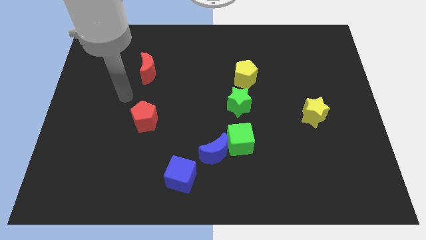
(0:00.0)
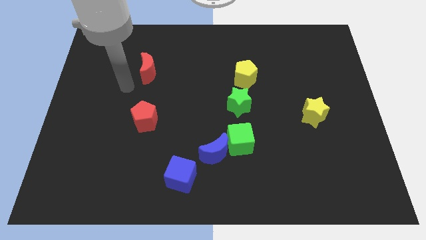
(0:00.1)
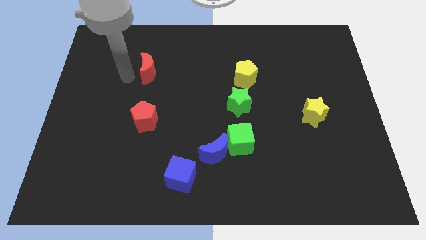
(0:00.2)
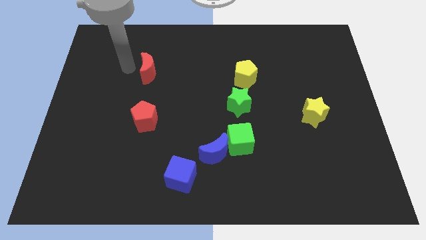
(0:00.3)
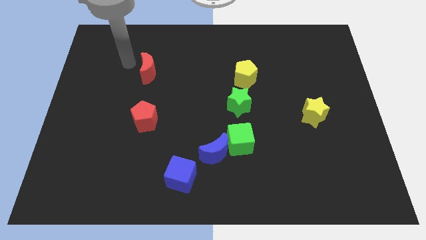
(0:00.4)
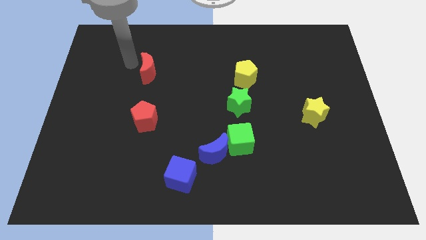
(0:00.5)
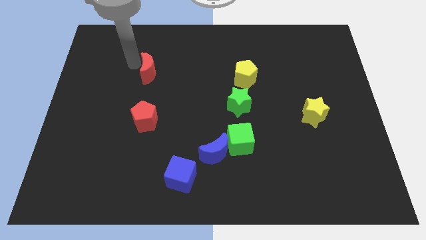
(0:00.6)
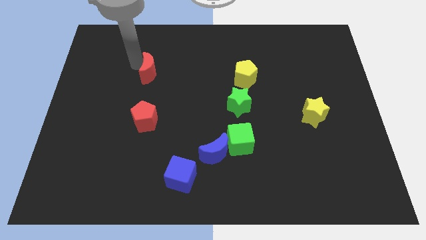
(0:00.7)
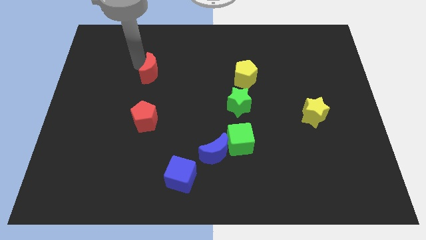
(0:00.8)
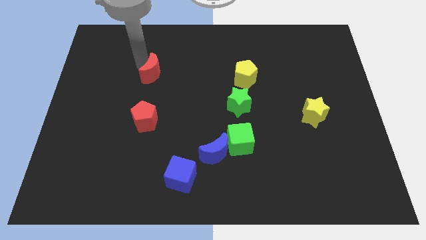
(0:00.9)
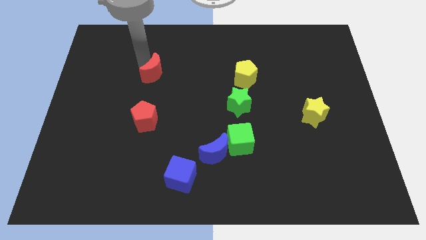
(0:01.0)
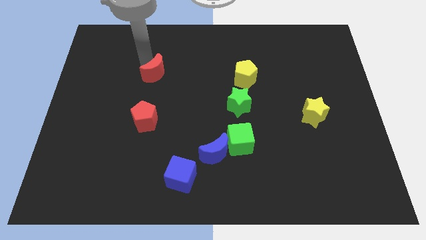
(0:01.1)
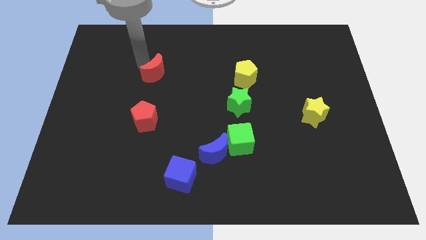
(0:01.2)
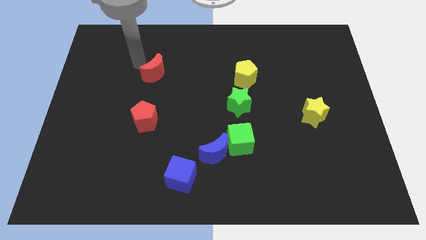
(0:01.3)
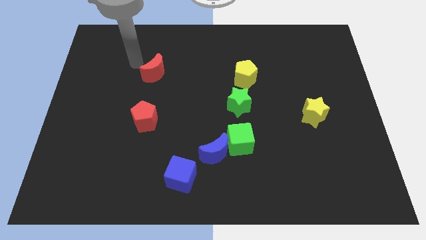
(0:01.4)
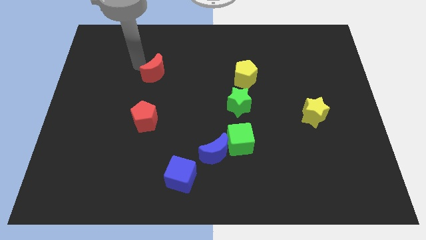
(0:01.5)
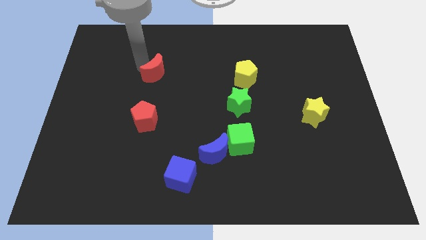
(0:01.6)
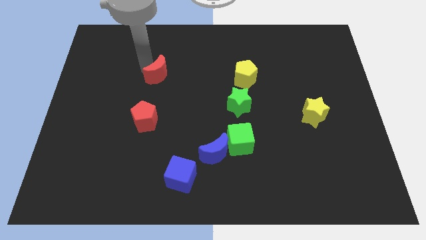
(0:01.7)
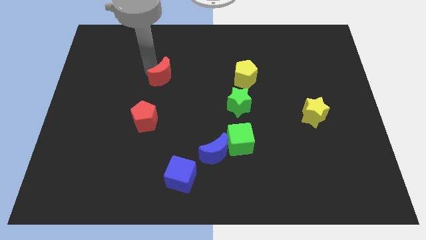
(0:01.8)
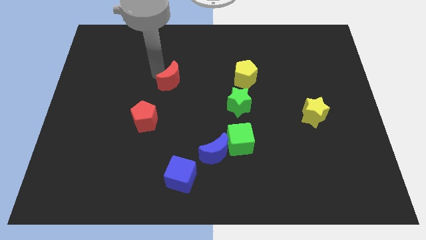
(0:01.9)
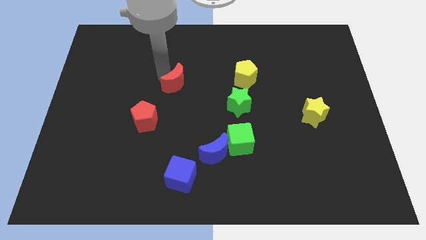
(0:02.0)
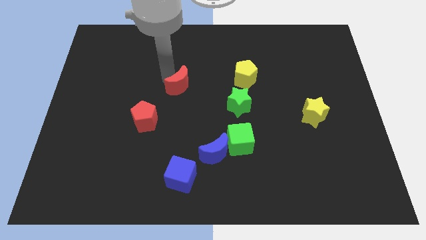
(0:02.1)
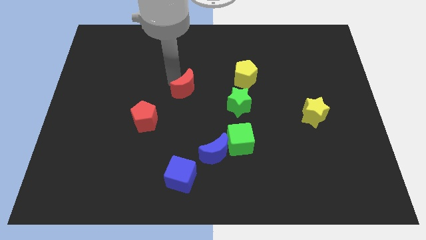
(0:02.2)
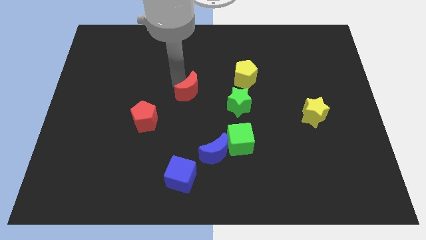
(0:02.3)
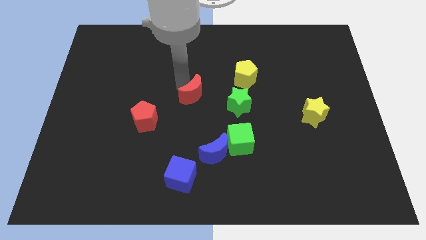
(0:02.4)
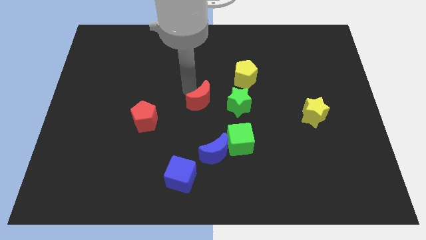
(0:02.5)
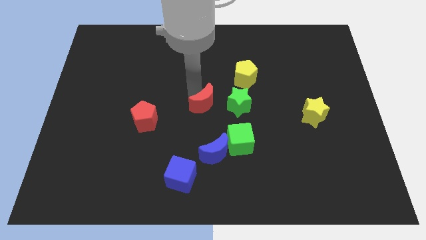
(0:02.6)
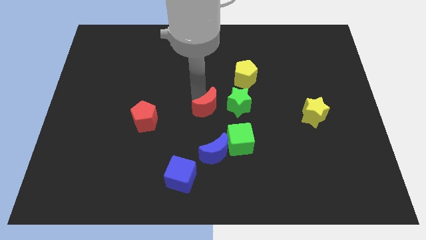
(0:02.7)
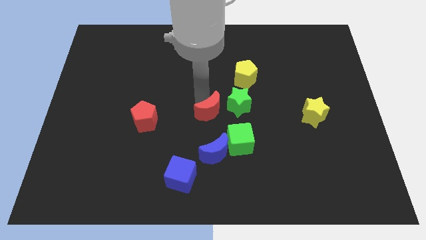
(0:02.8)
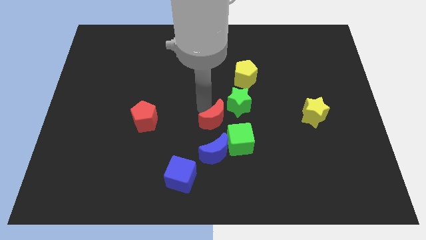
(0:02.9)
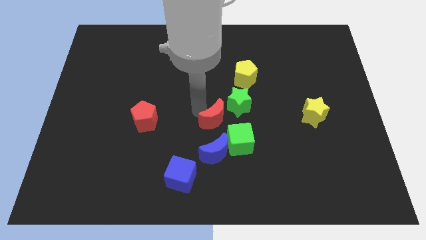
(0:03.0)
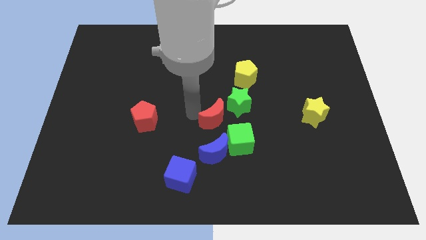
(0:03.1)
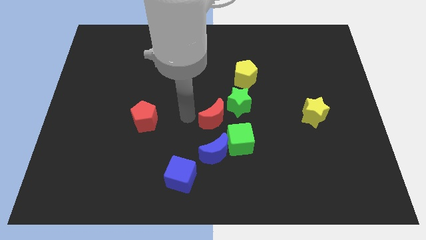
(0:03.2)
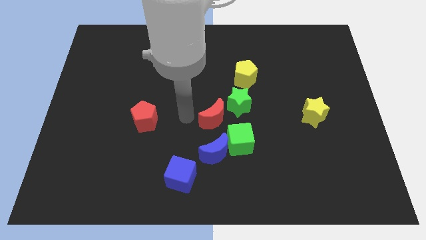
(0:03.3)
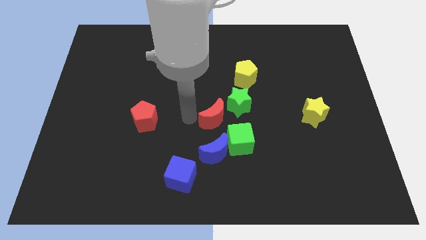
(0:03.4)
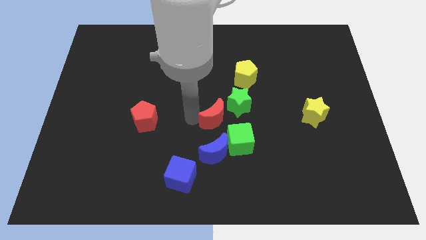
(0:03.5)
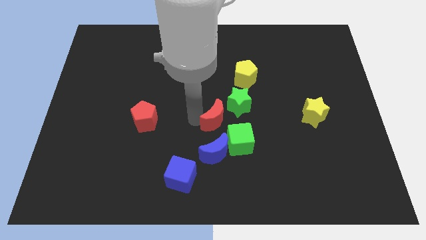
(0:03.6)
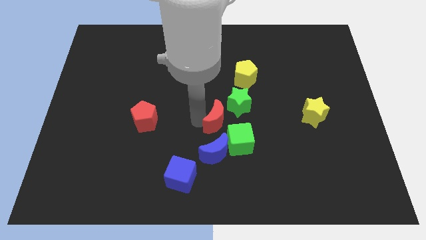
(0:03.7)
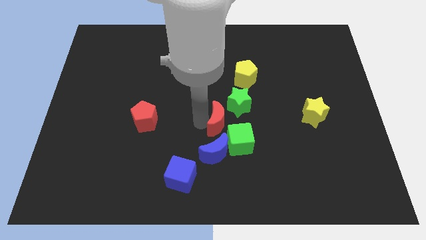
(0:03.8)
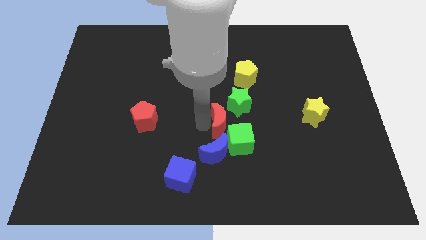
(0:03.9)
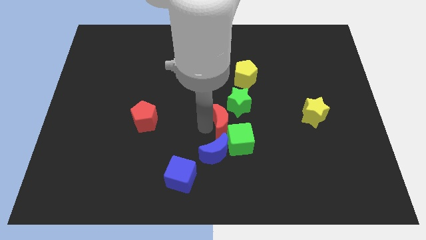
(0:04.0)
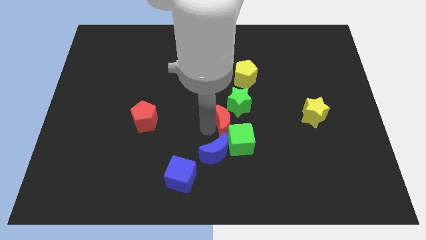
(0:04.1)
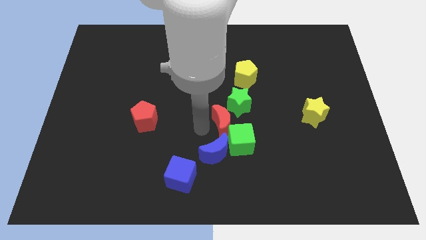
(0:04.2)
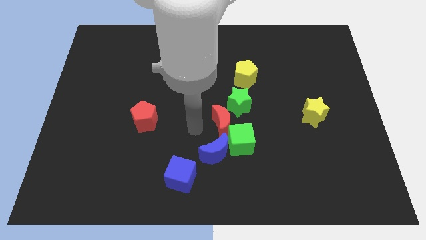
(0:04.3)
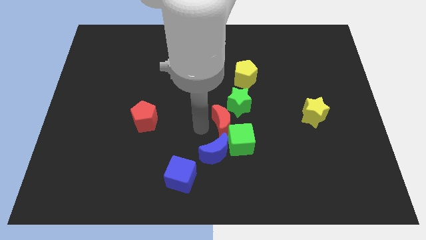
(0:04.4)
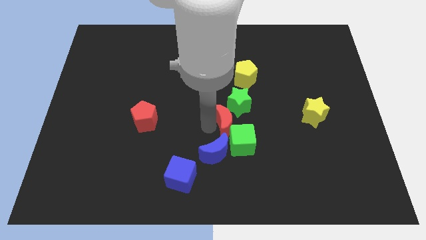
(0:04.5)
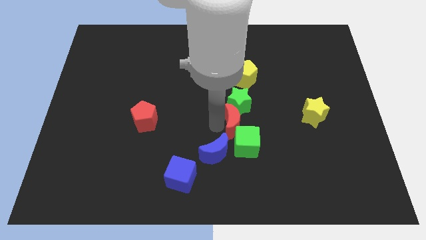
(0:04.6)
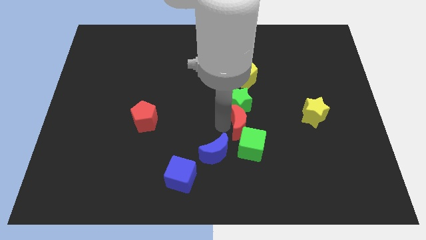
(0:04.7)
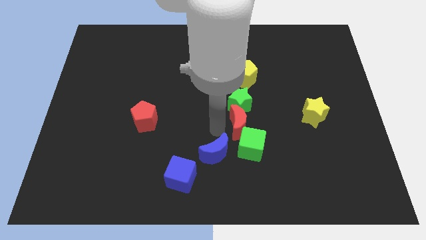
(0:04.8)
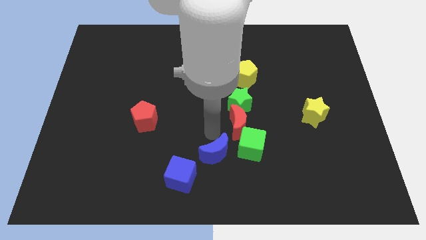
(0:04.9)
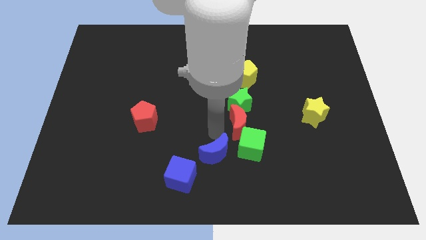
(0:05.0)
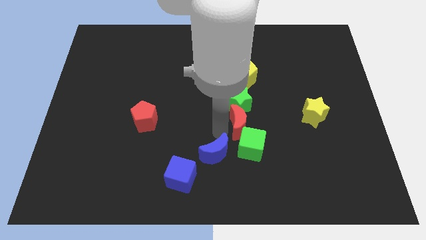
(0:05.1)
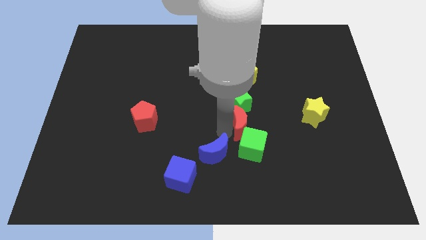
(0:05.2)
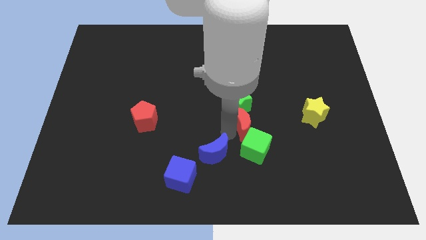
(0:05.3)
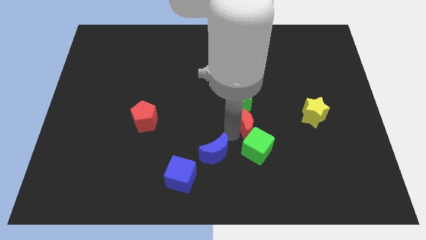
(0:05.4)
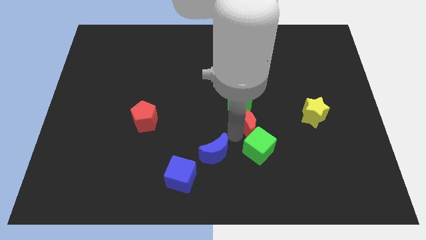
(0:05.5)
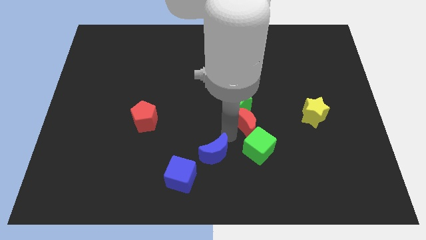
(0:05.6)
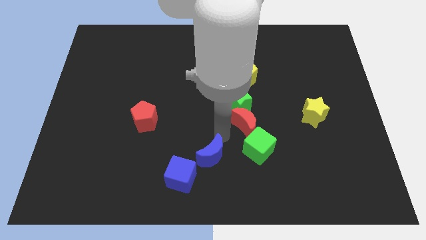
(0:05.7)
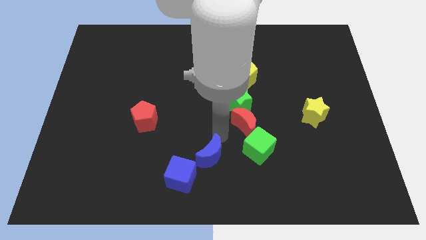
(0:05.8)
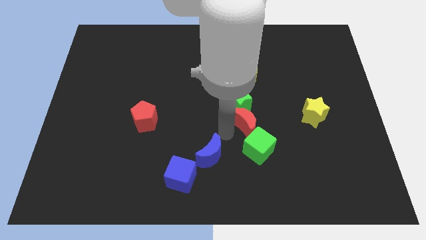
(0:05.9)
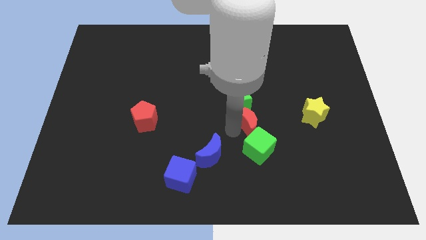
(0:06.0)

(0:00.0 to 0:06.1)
put the red moon left of the yellow star

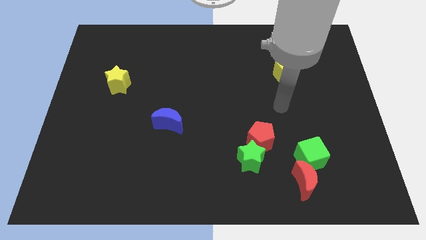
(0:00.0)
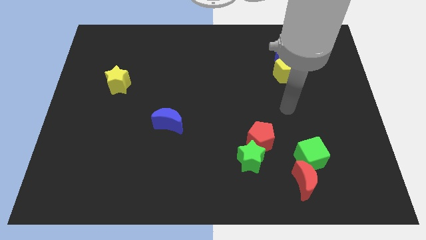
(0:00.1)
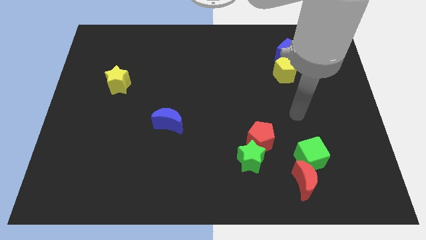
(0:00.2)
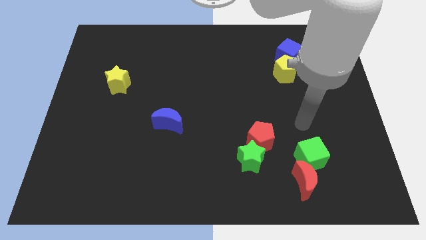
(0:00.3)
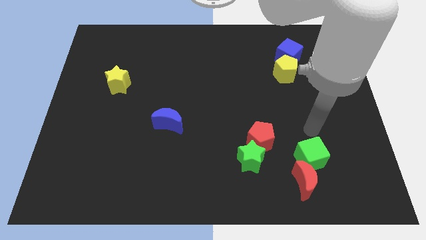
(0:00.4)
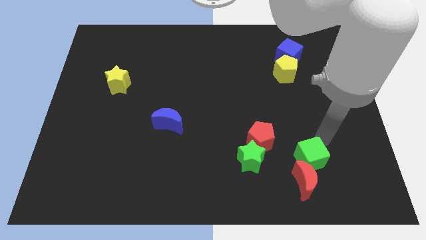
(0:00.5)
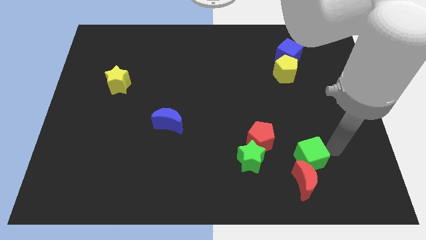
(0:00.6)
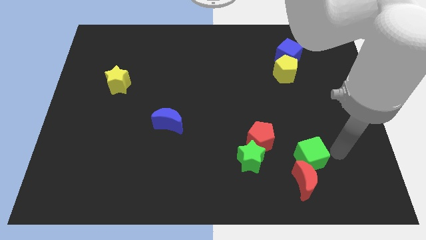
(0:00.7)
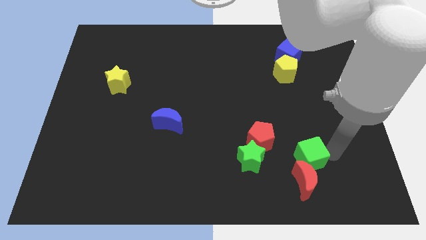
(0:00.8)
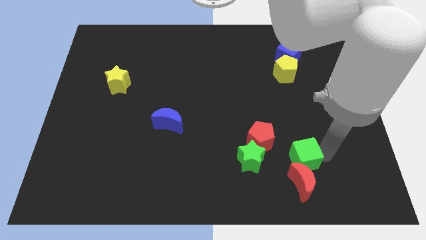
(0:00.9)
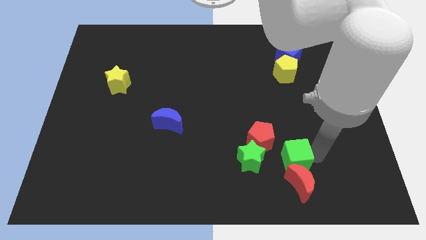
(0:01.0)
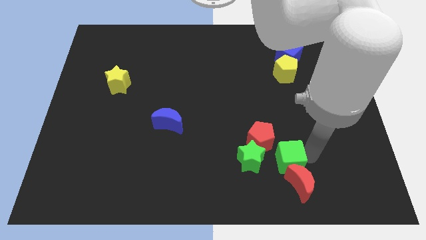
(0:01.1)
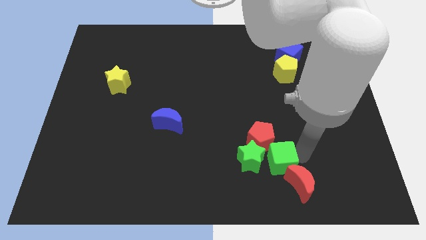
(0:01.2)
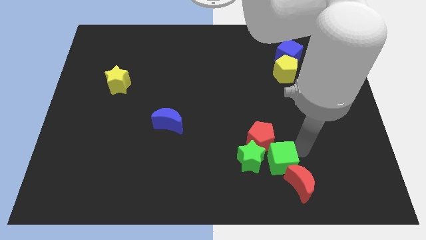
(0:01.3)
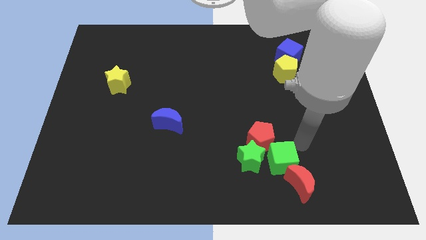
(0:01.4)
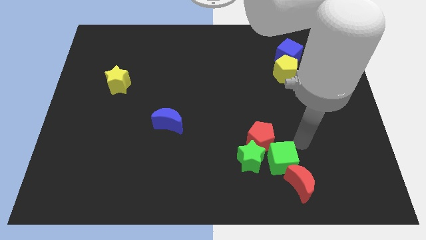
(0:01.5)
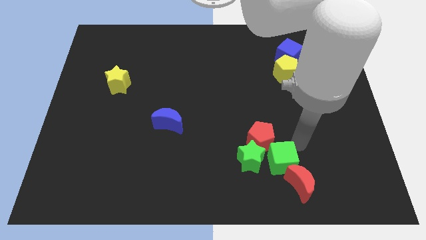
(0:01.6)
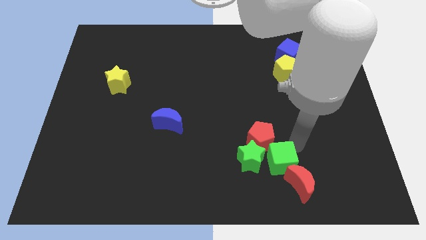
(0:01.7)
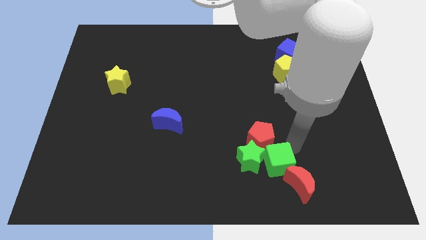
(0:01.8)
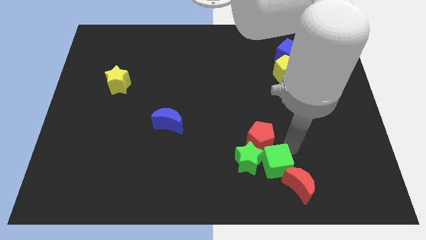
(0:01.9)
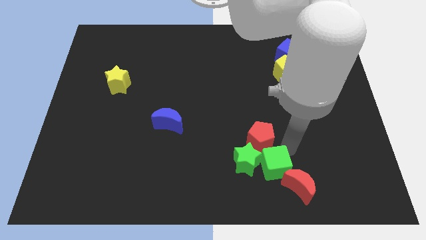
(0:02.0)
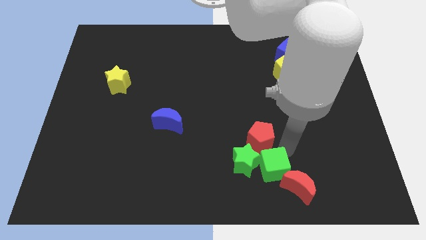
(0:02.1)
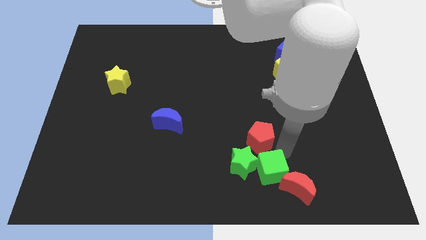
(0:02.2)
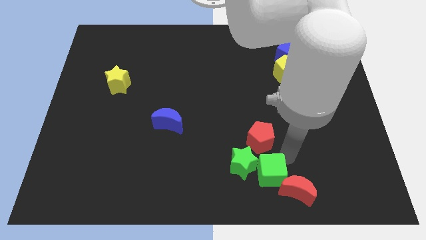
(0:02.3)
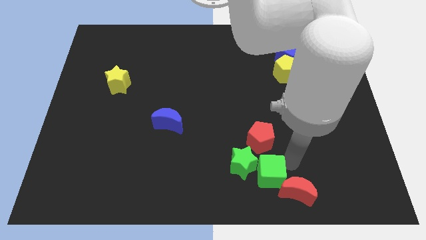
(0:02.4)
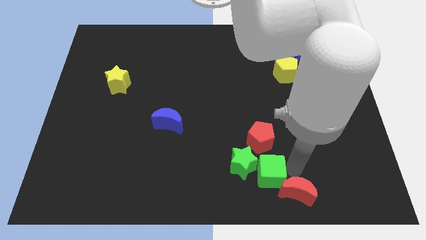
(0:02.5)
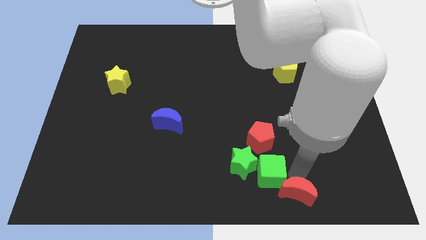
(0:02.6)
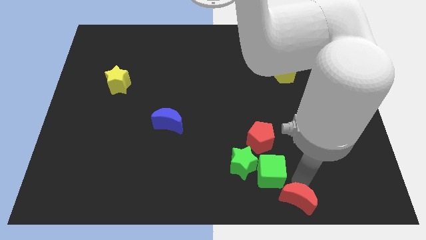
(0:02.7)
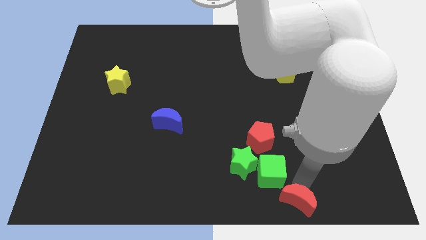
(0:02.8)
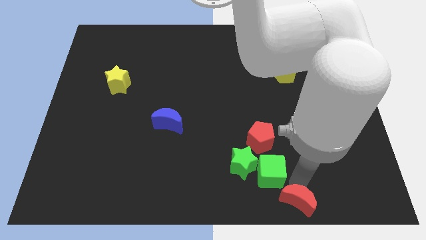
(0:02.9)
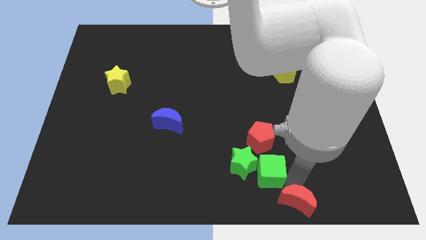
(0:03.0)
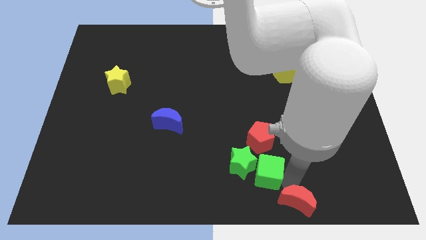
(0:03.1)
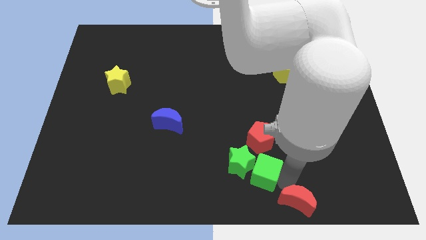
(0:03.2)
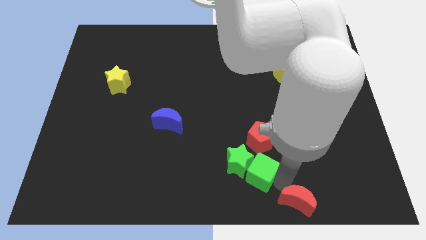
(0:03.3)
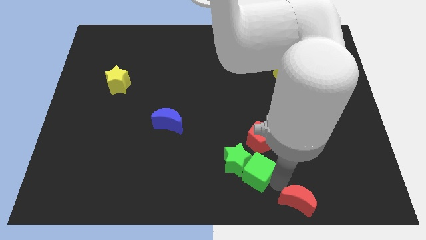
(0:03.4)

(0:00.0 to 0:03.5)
put the green cube to the bottom left side of the red pentagon
